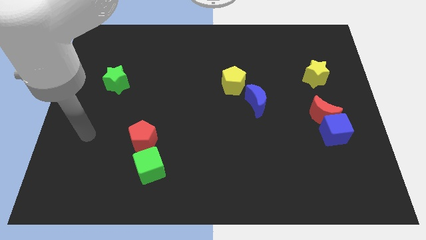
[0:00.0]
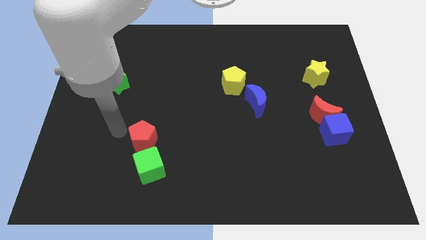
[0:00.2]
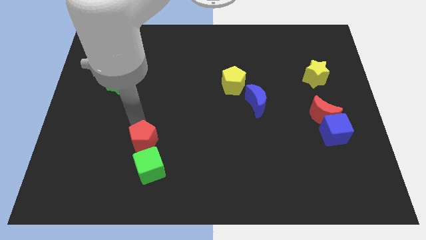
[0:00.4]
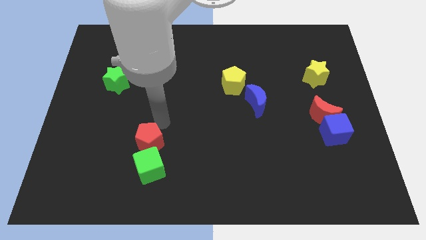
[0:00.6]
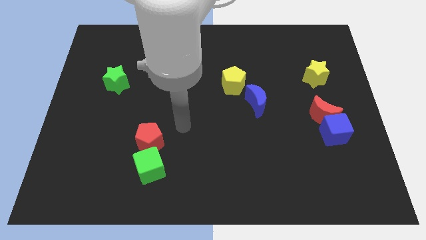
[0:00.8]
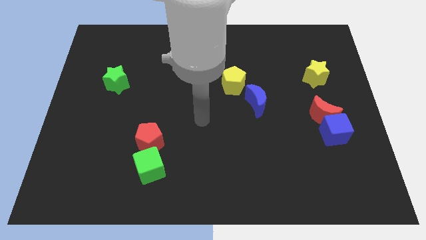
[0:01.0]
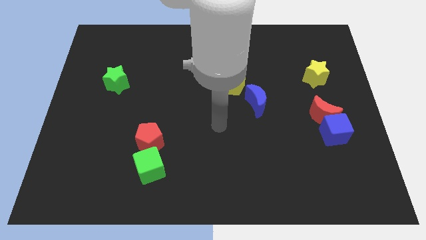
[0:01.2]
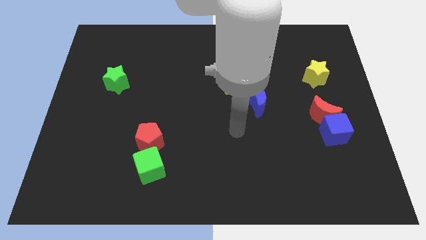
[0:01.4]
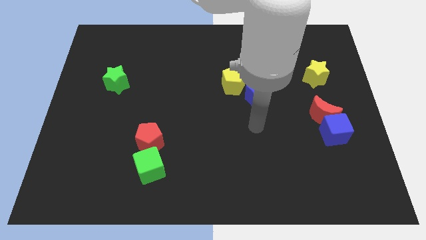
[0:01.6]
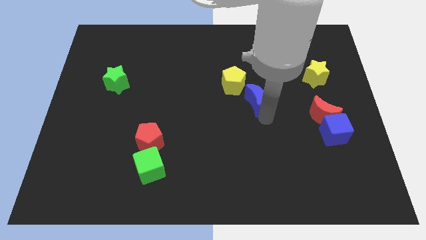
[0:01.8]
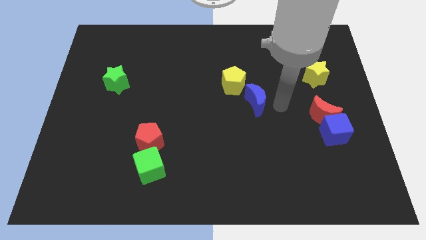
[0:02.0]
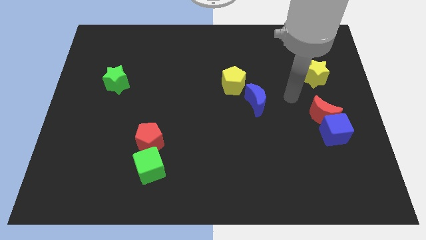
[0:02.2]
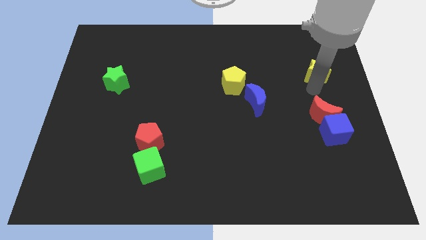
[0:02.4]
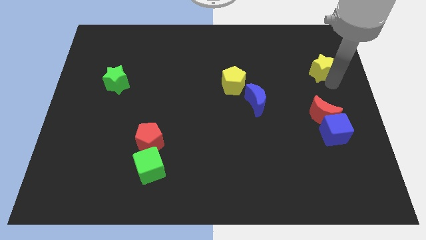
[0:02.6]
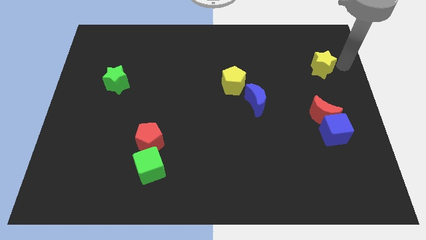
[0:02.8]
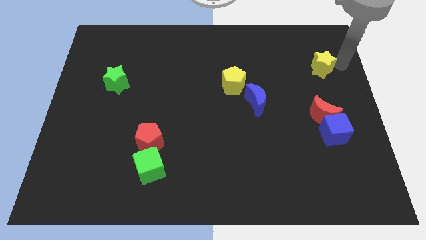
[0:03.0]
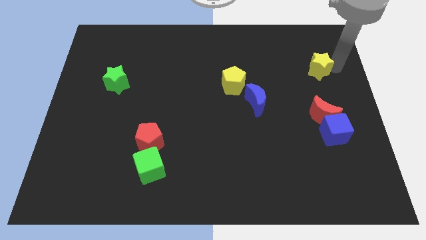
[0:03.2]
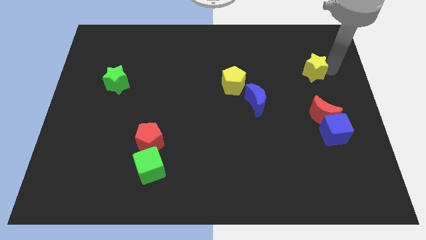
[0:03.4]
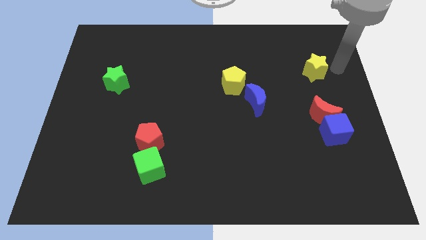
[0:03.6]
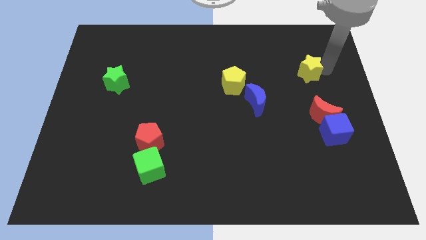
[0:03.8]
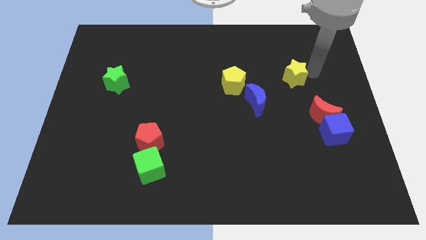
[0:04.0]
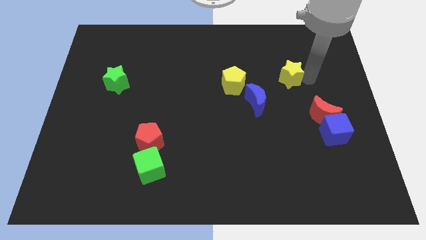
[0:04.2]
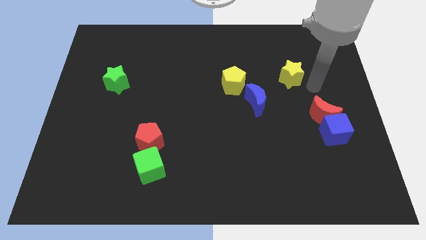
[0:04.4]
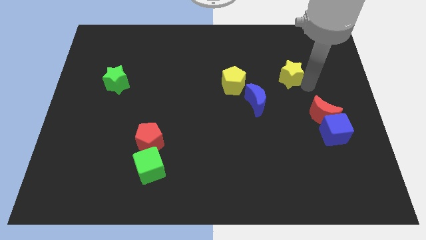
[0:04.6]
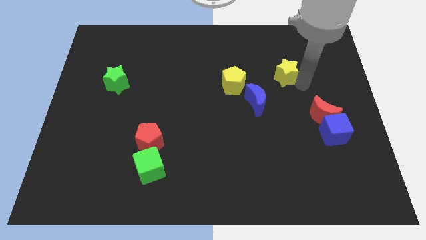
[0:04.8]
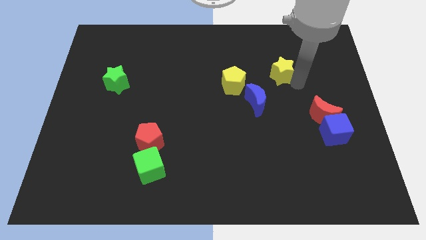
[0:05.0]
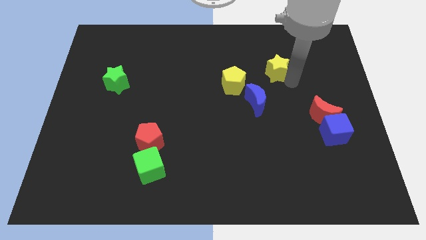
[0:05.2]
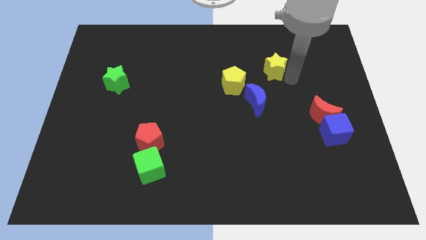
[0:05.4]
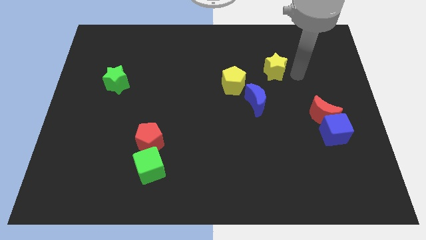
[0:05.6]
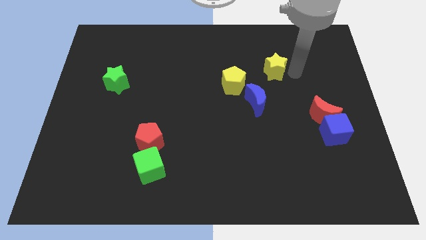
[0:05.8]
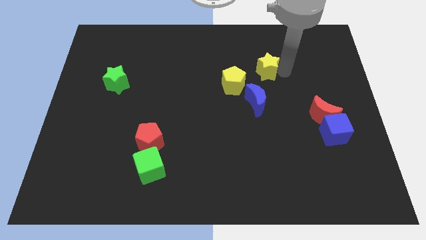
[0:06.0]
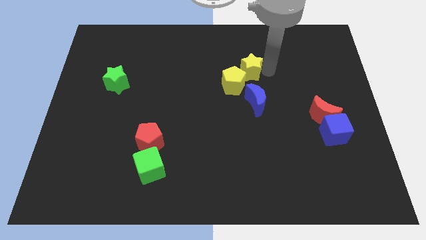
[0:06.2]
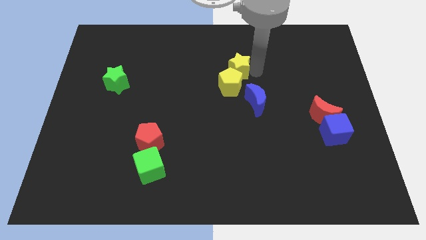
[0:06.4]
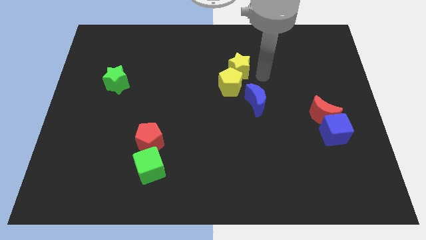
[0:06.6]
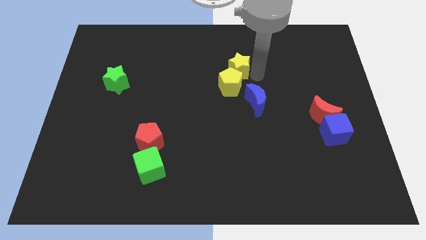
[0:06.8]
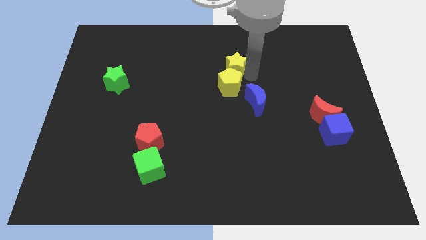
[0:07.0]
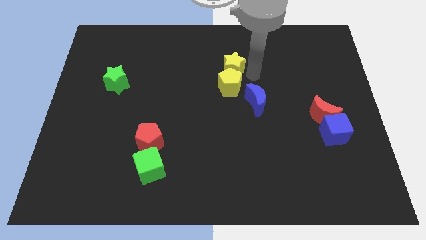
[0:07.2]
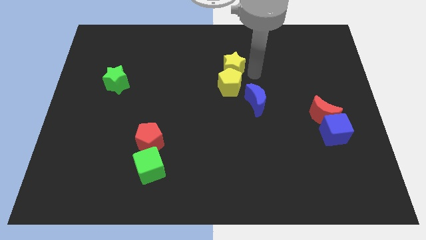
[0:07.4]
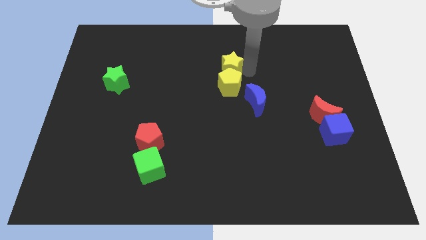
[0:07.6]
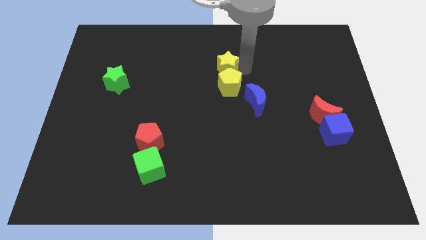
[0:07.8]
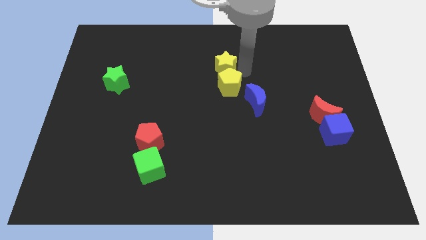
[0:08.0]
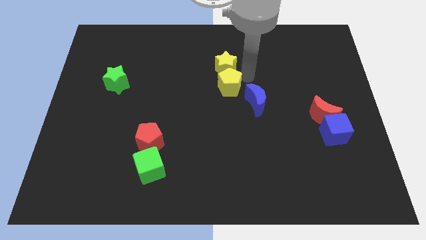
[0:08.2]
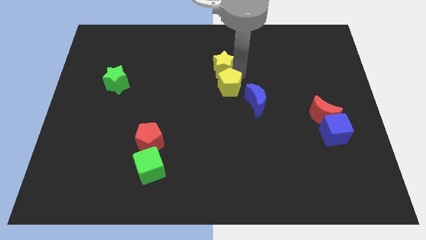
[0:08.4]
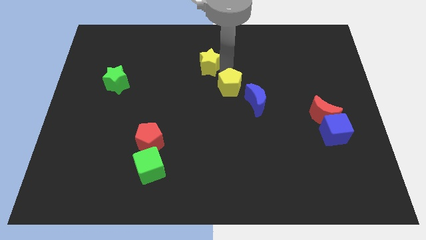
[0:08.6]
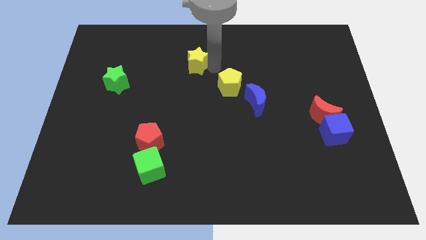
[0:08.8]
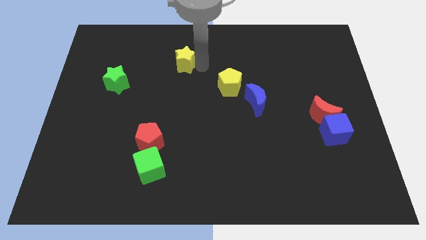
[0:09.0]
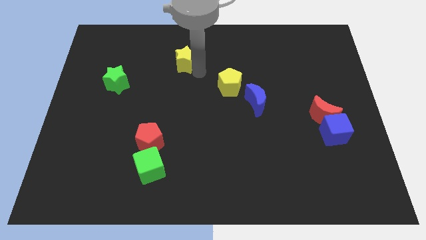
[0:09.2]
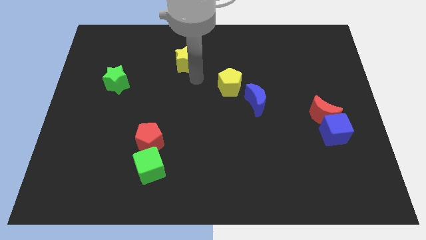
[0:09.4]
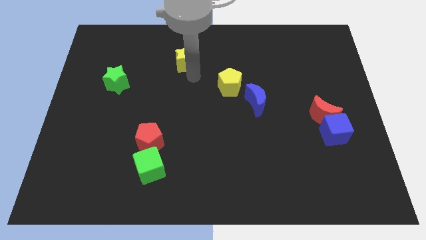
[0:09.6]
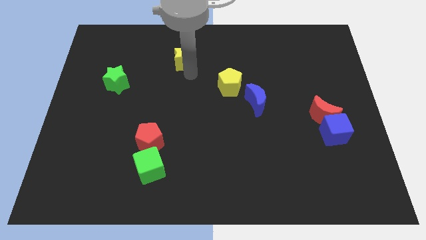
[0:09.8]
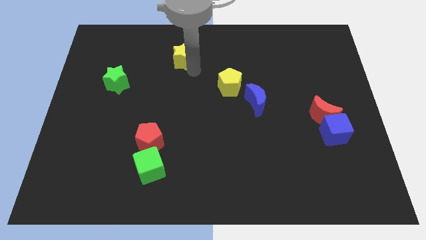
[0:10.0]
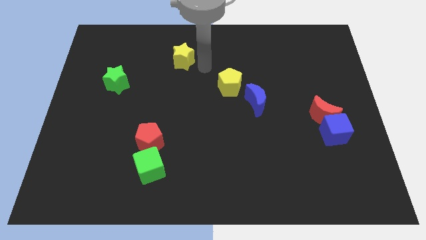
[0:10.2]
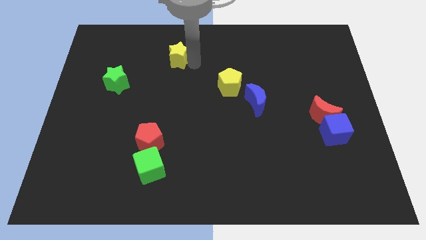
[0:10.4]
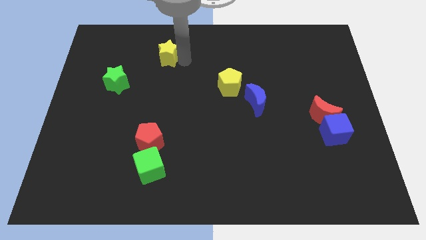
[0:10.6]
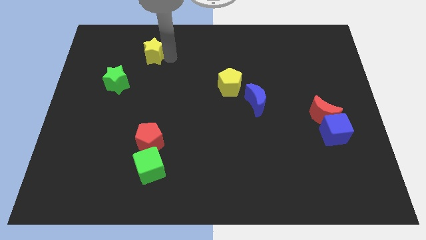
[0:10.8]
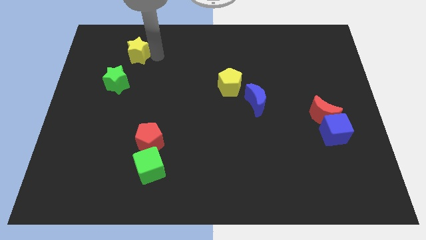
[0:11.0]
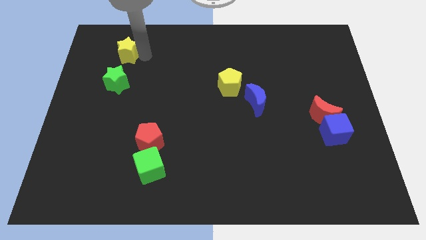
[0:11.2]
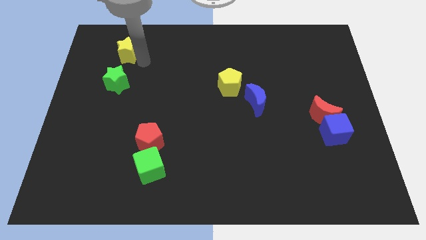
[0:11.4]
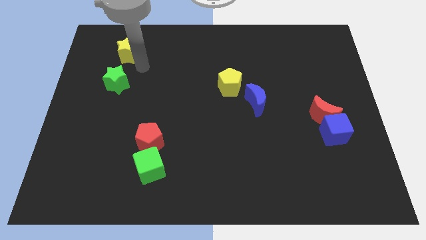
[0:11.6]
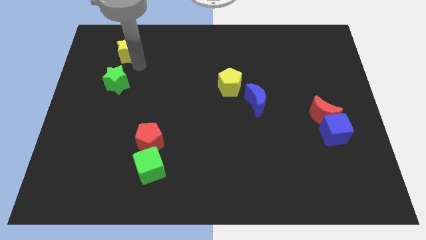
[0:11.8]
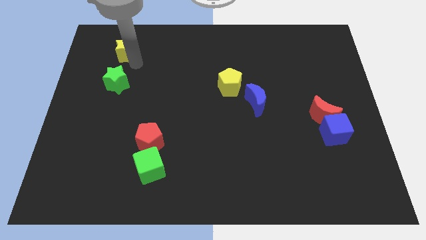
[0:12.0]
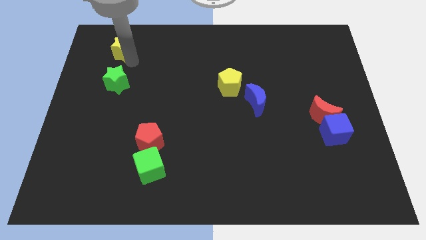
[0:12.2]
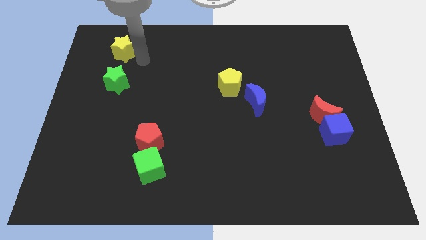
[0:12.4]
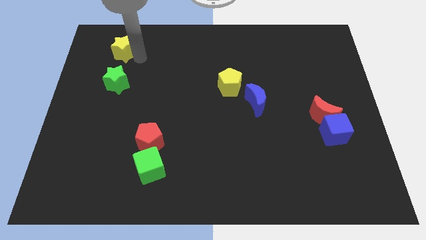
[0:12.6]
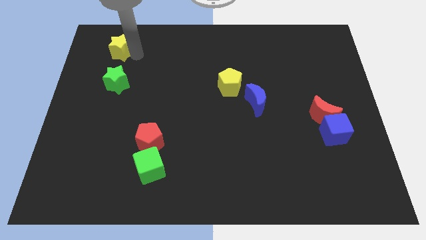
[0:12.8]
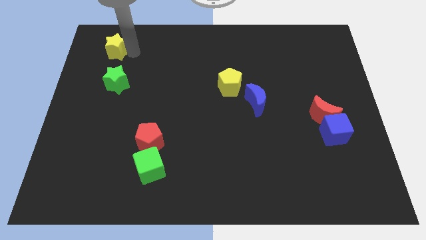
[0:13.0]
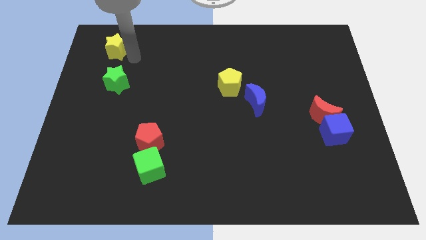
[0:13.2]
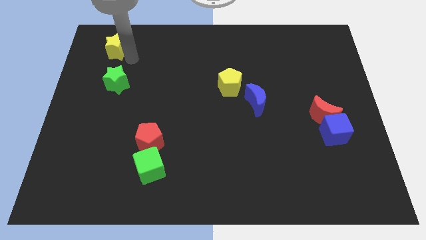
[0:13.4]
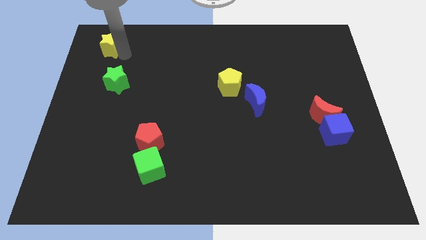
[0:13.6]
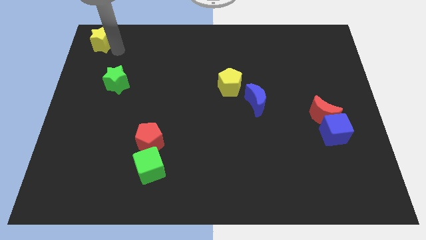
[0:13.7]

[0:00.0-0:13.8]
move the yellow star to the upper left corner
